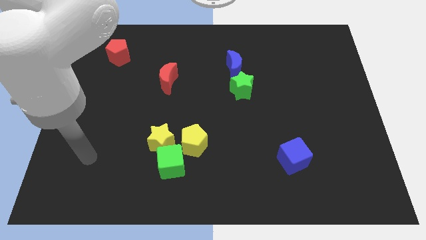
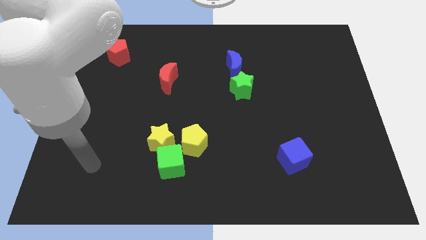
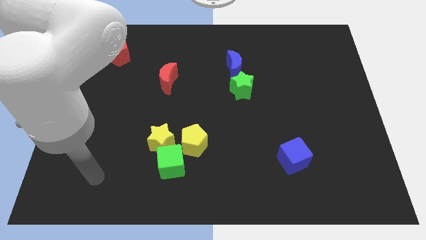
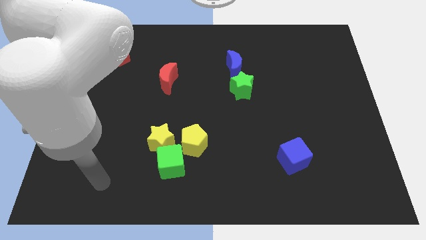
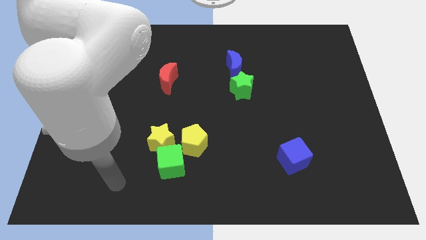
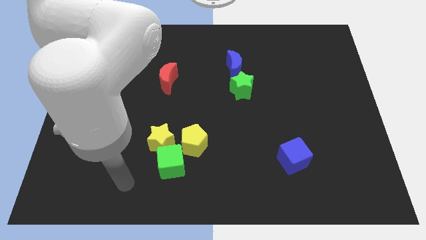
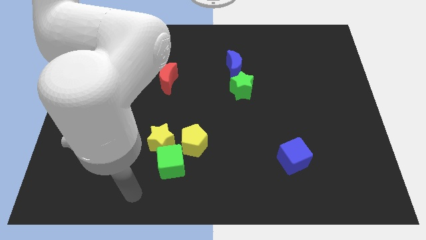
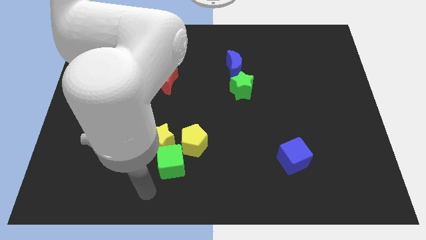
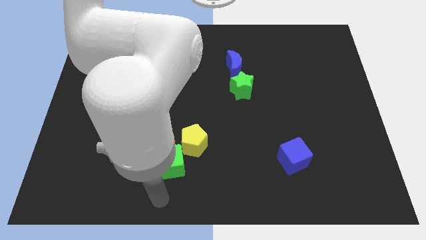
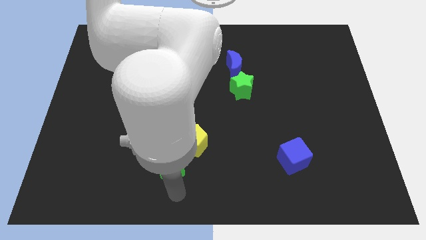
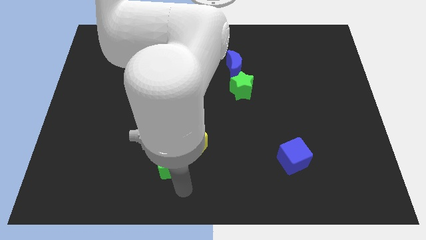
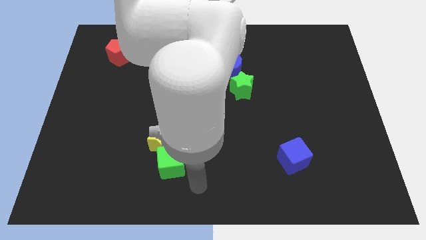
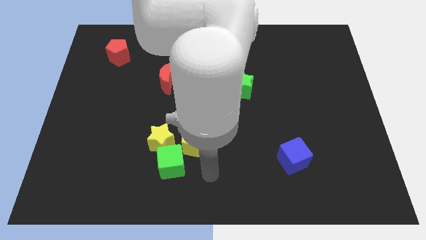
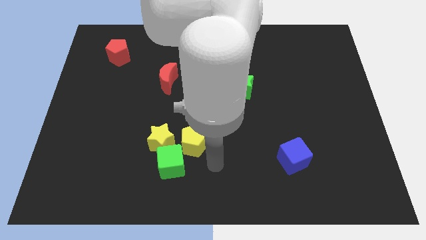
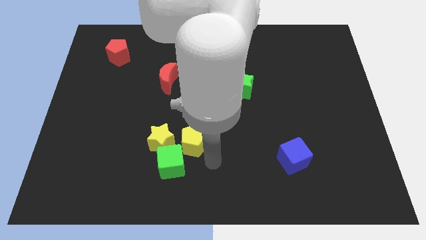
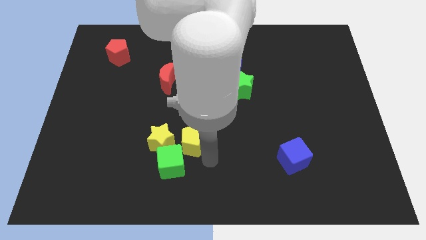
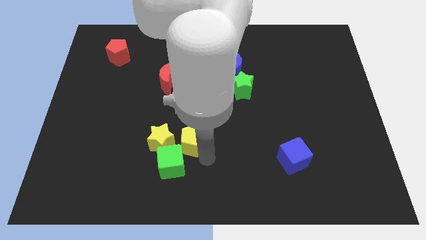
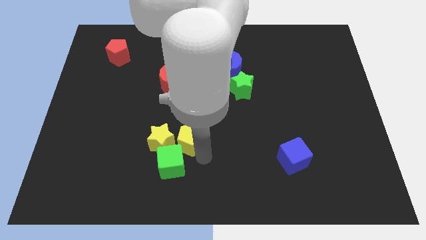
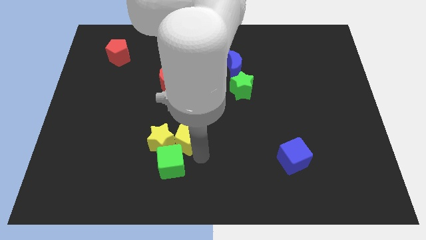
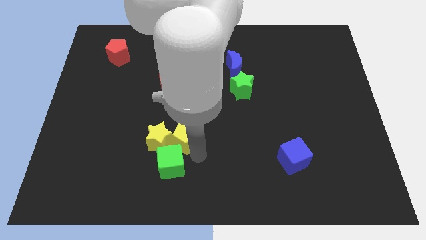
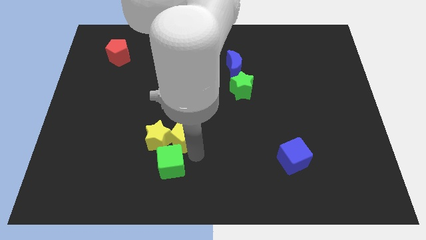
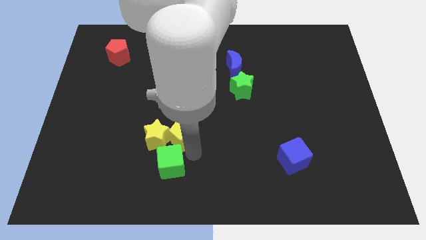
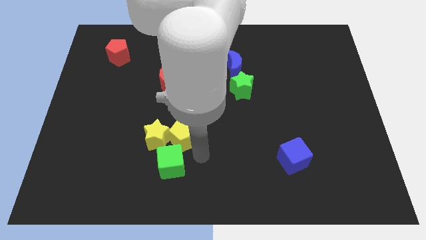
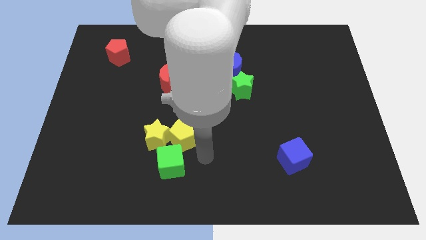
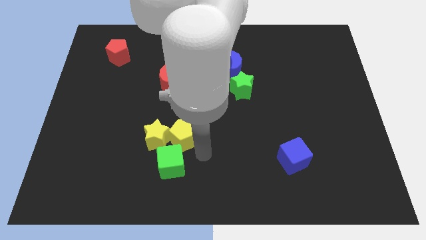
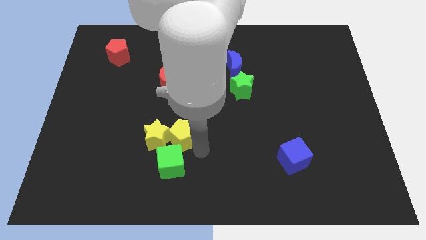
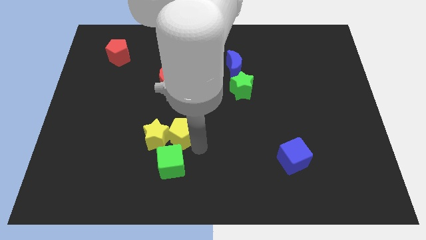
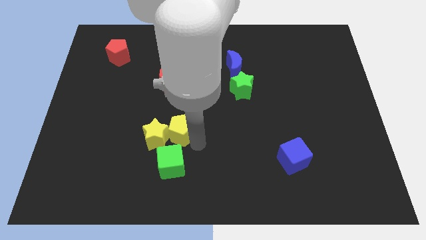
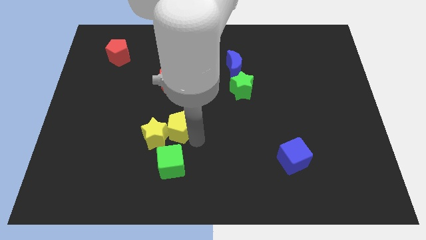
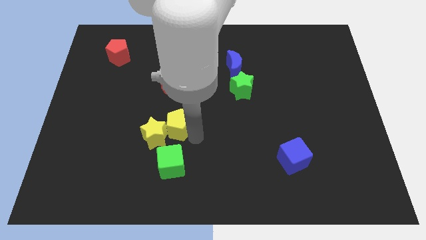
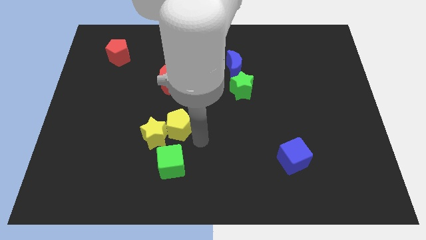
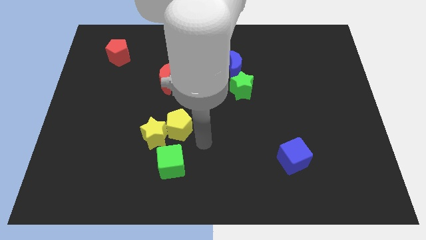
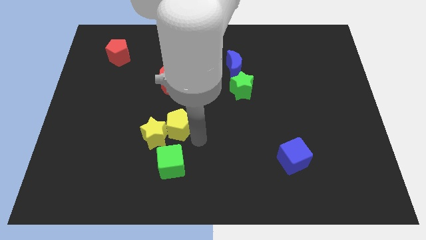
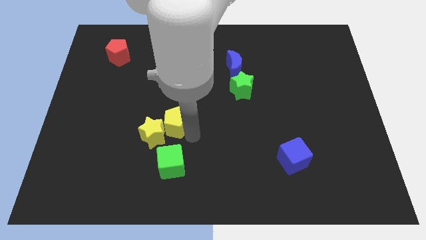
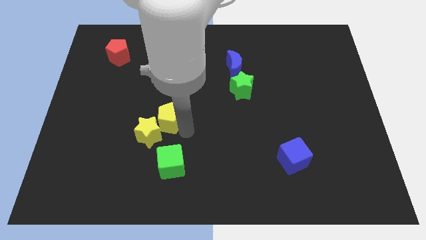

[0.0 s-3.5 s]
move the yellow pentagon somewhat up and to the left

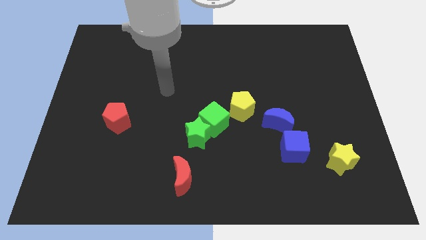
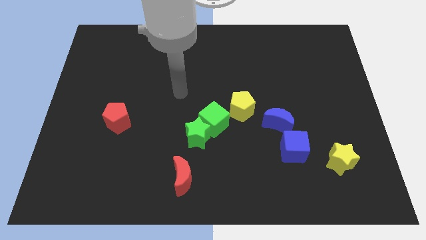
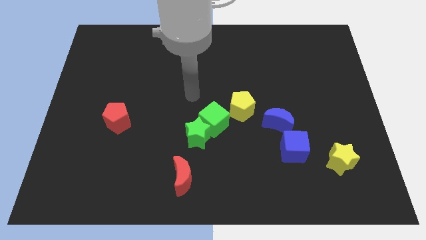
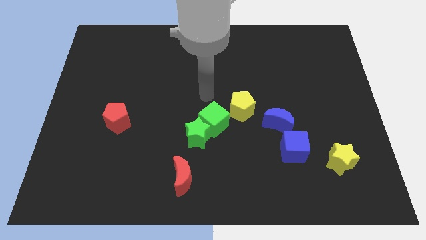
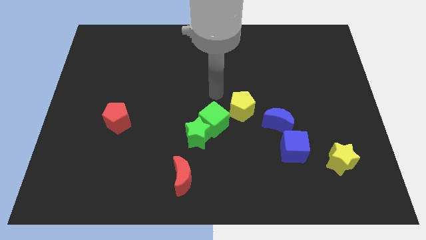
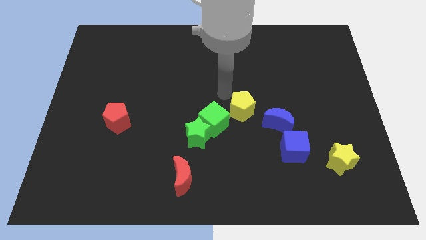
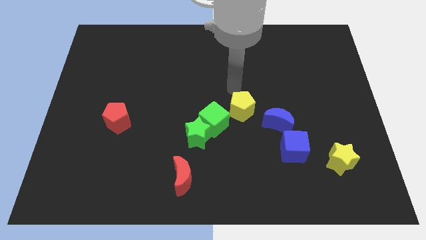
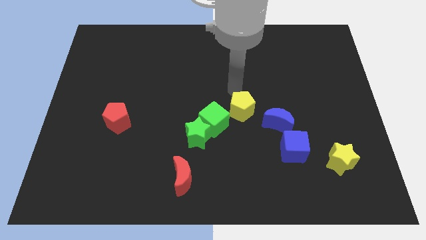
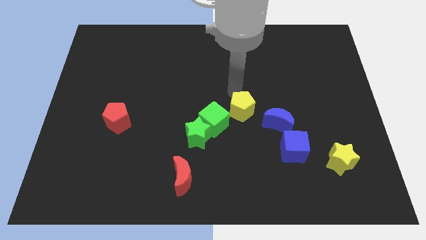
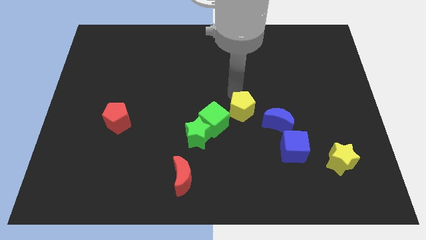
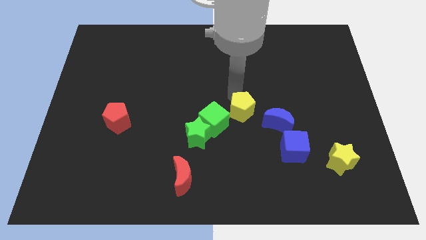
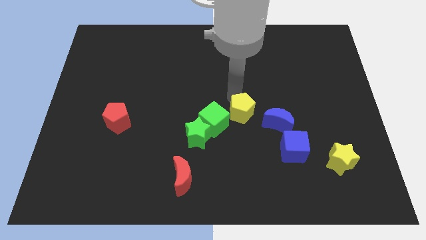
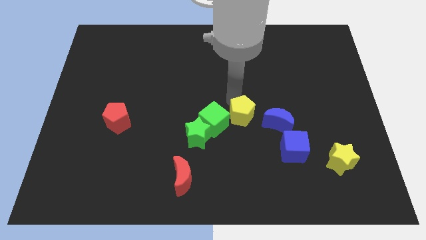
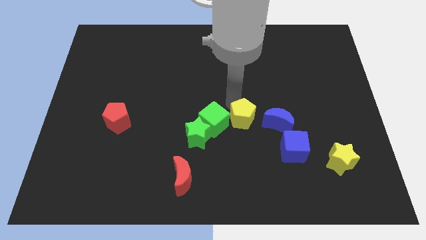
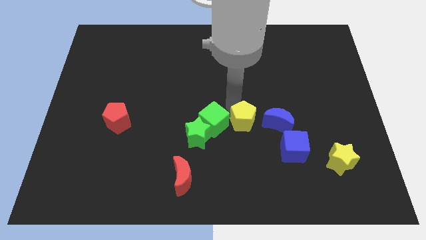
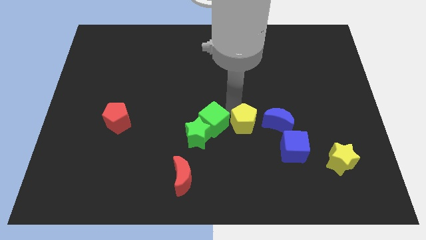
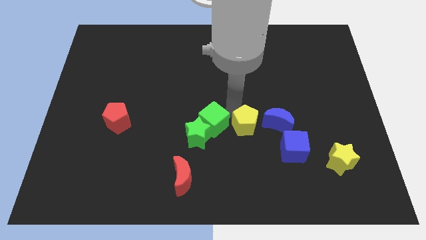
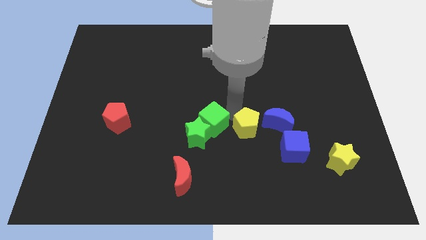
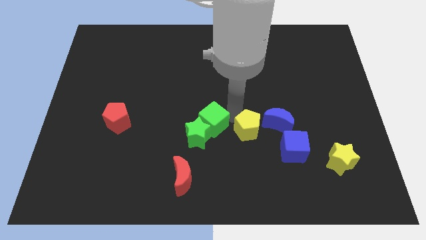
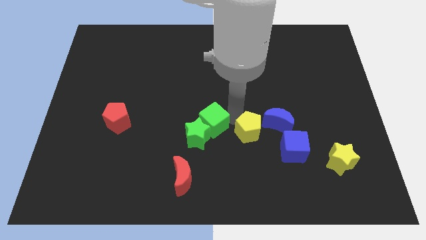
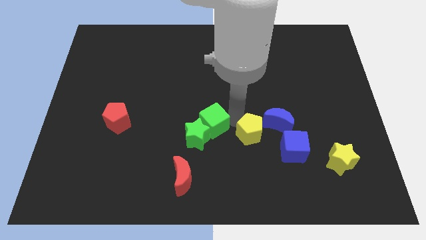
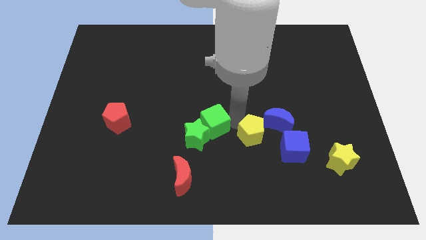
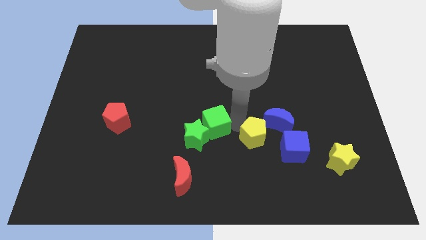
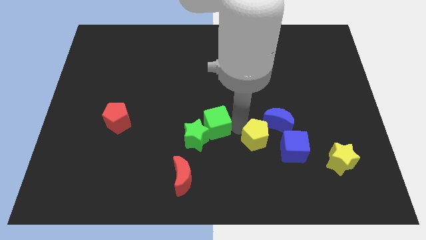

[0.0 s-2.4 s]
slide the yellow pentagon a little down and right

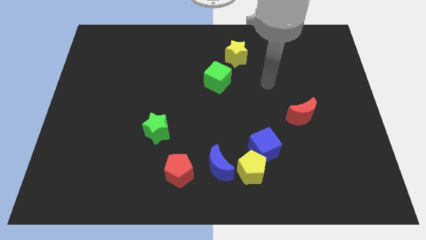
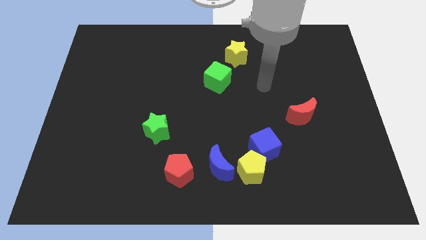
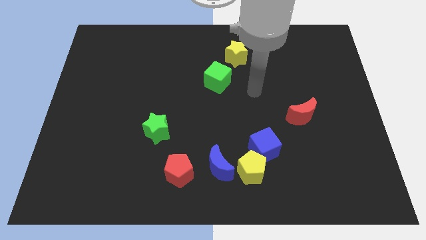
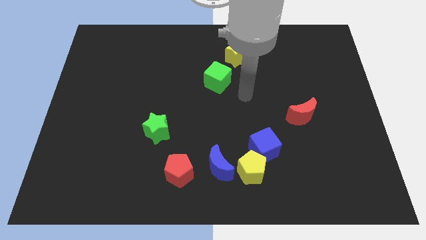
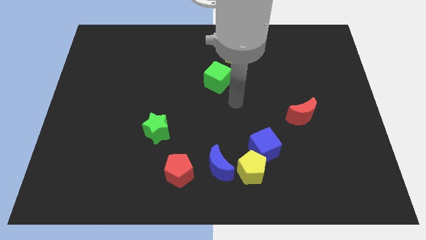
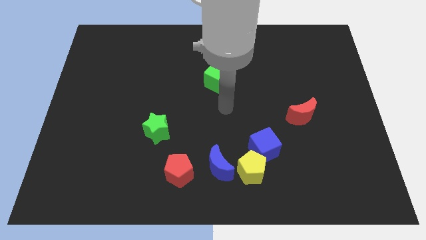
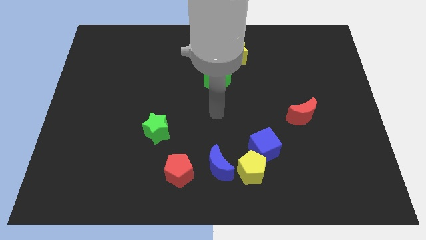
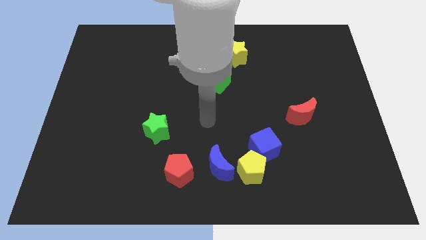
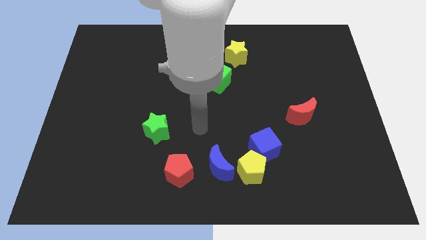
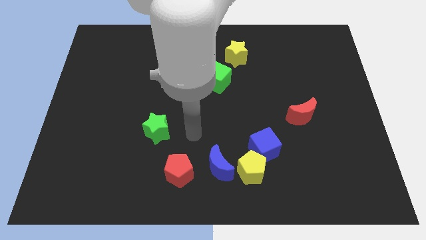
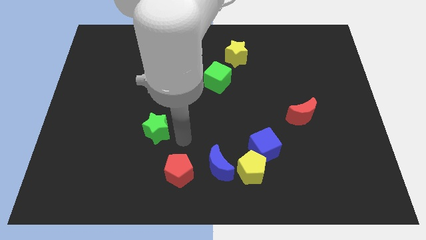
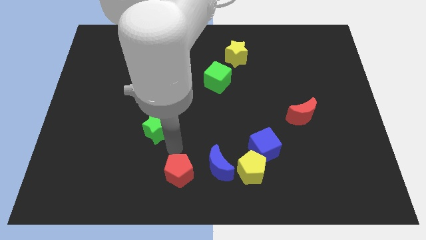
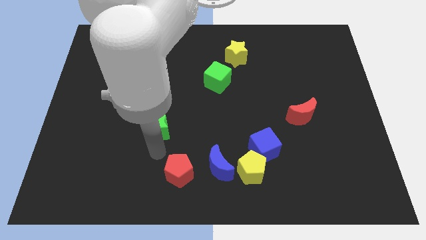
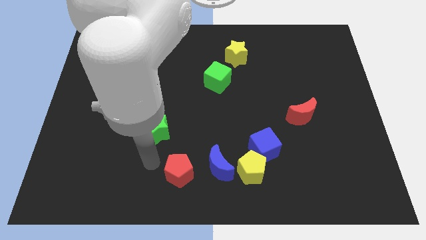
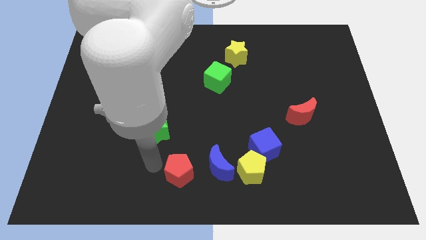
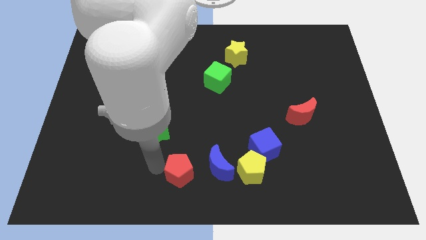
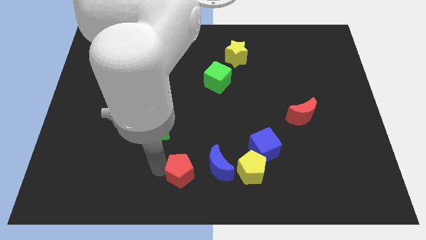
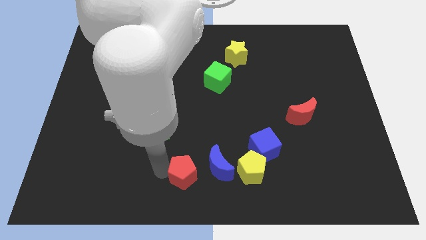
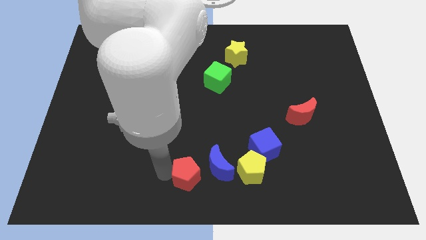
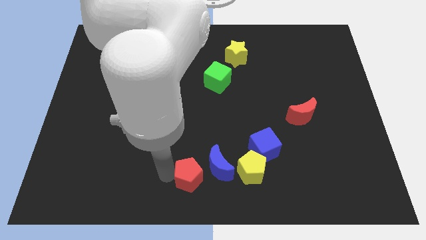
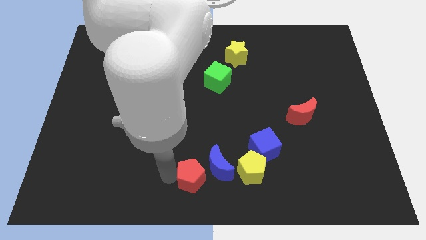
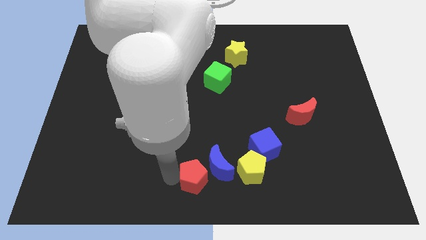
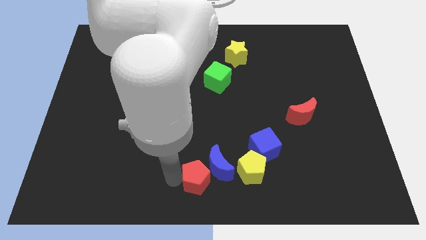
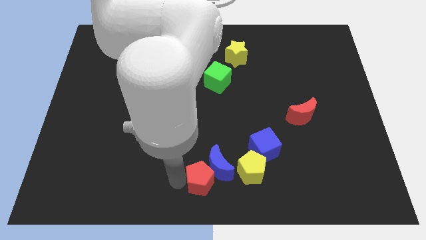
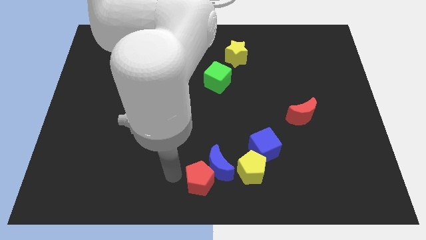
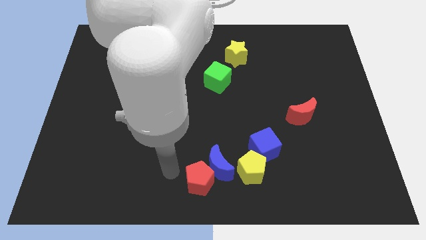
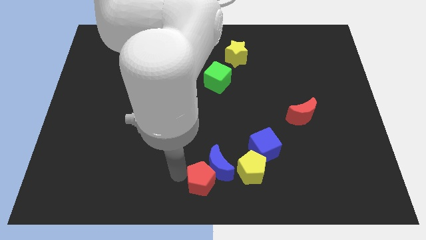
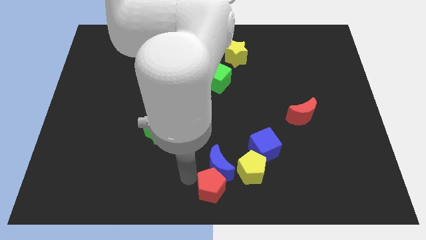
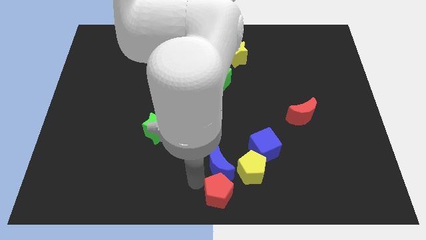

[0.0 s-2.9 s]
move the red pentagon right slightly
